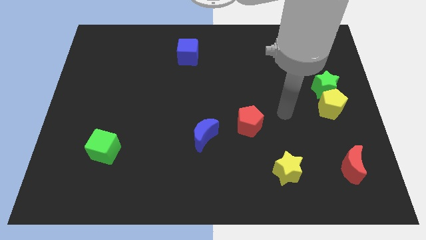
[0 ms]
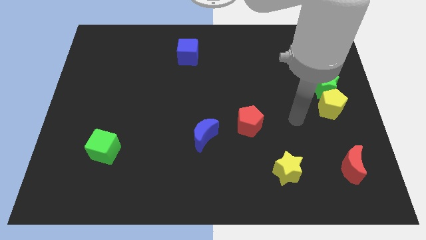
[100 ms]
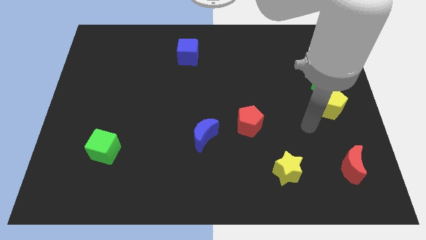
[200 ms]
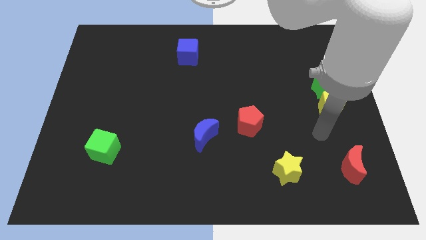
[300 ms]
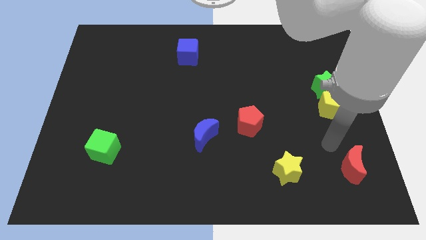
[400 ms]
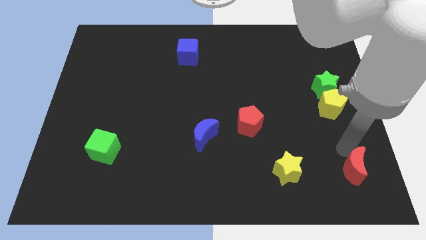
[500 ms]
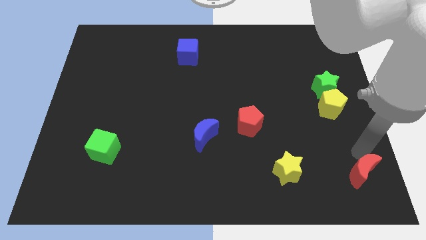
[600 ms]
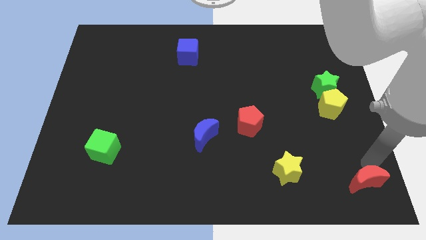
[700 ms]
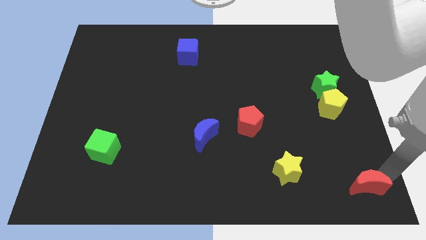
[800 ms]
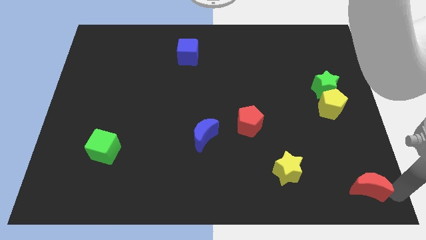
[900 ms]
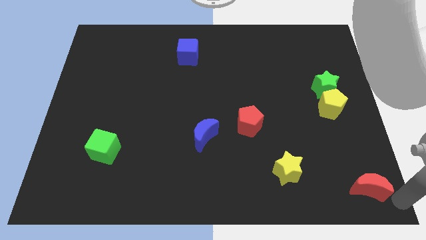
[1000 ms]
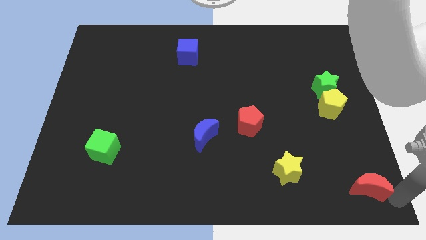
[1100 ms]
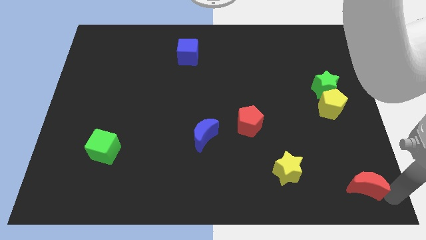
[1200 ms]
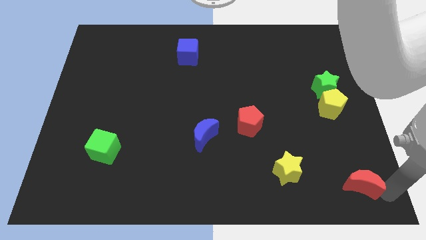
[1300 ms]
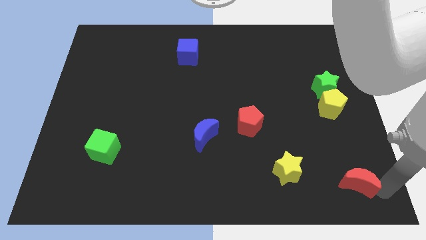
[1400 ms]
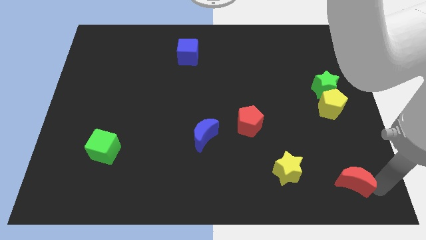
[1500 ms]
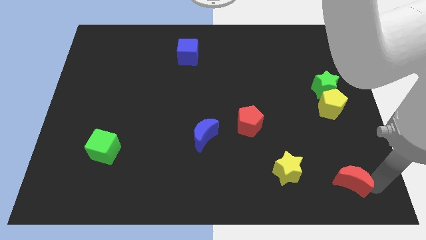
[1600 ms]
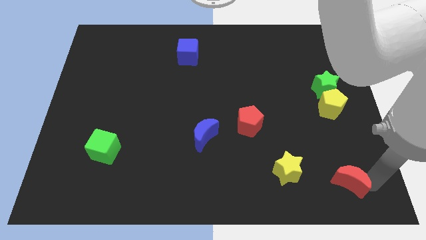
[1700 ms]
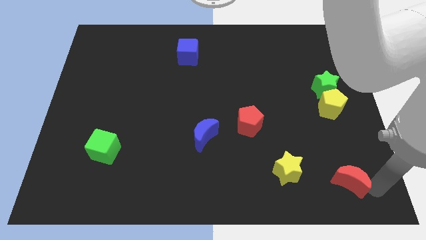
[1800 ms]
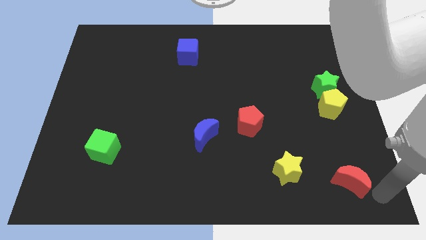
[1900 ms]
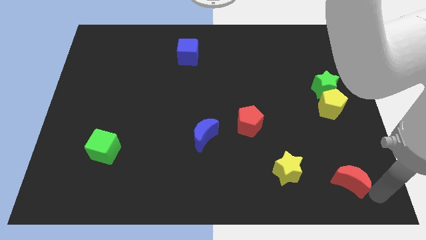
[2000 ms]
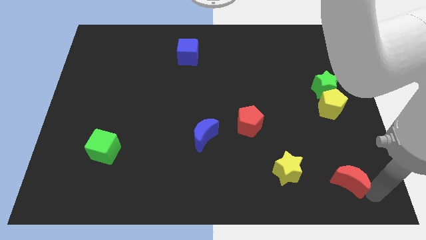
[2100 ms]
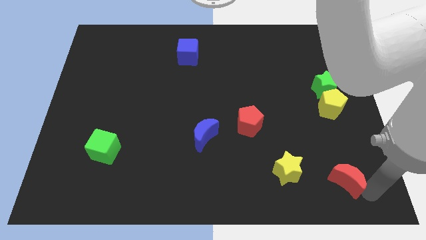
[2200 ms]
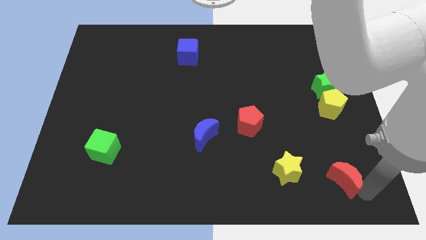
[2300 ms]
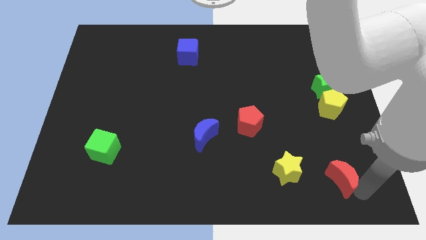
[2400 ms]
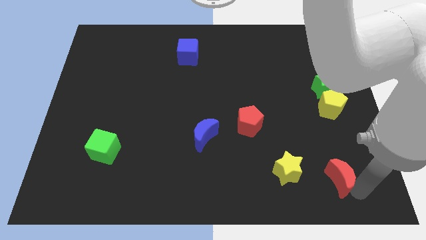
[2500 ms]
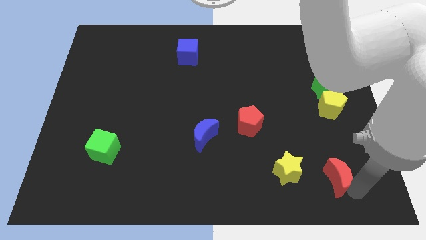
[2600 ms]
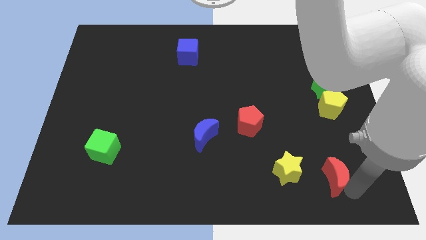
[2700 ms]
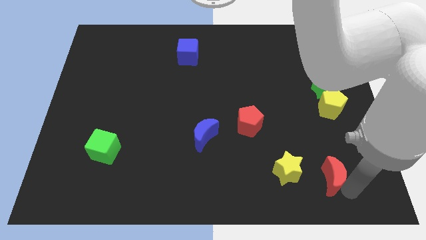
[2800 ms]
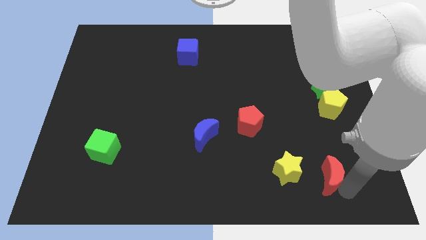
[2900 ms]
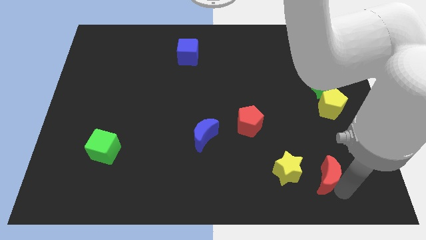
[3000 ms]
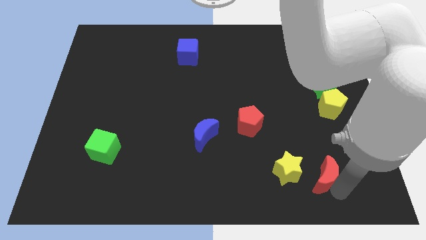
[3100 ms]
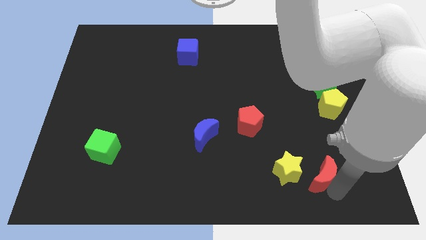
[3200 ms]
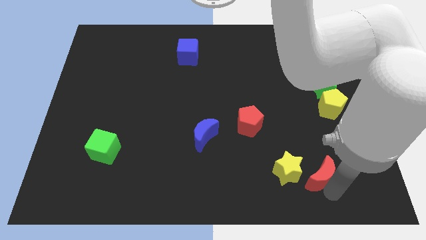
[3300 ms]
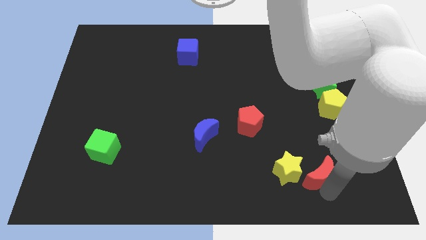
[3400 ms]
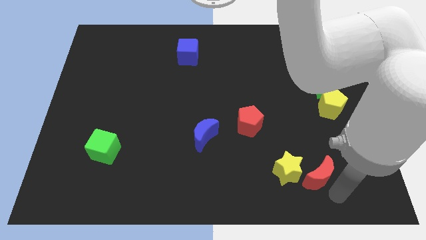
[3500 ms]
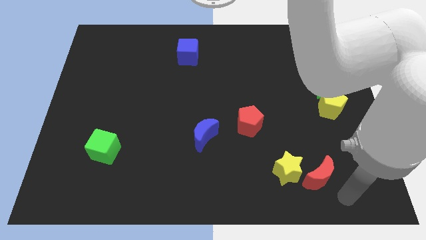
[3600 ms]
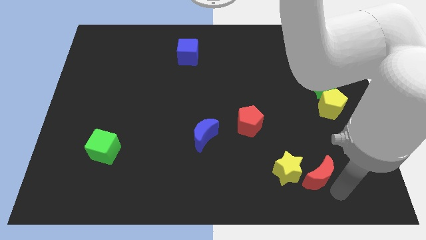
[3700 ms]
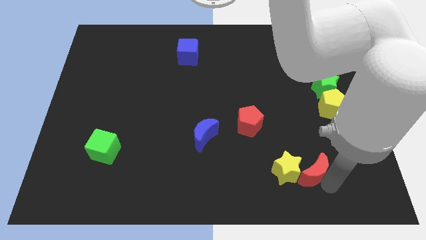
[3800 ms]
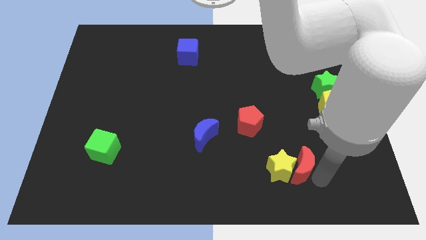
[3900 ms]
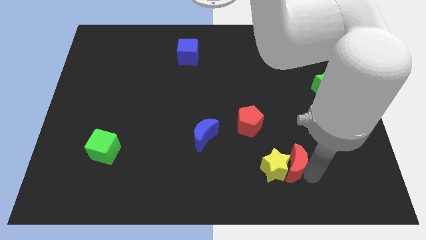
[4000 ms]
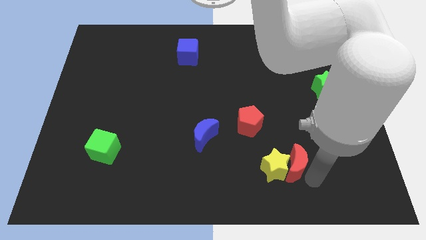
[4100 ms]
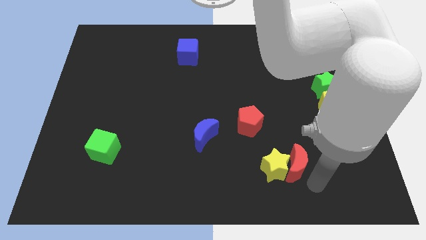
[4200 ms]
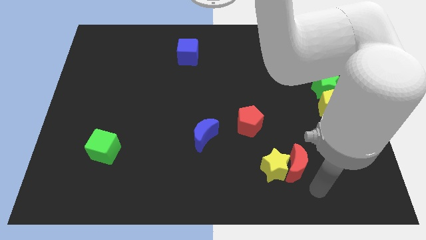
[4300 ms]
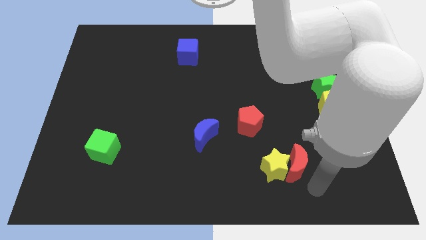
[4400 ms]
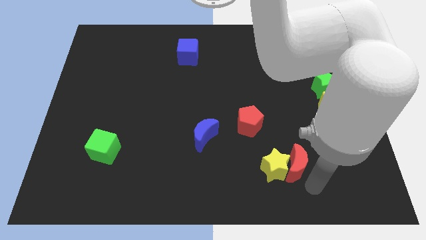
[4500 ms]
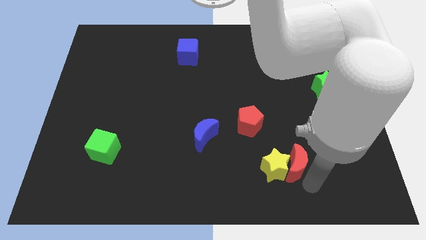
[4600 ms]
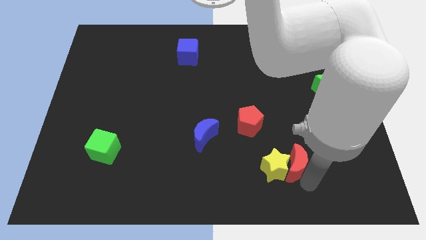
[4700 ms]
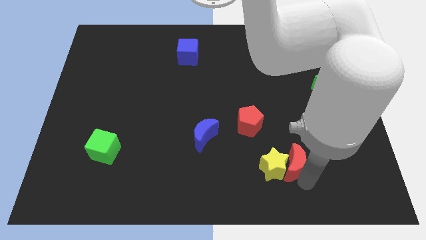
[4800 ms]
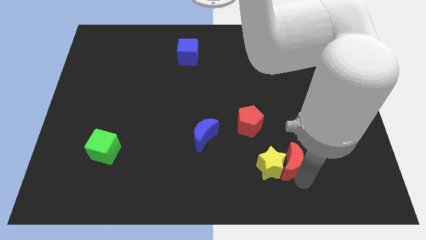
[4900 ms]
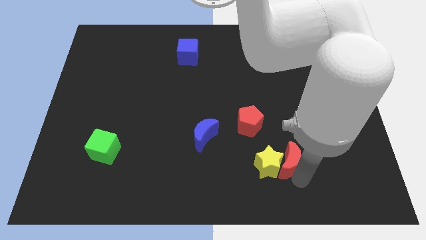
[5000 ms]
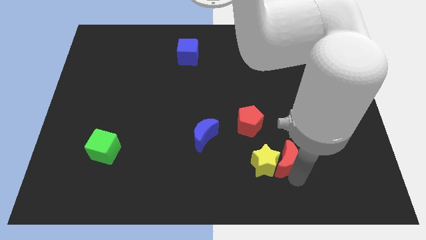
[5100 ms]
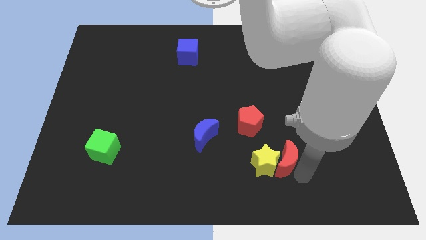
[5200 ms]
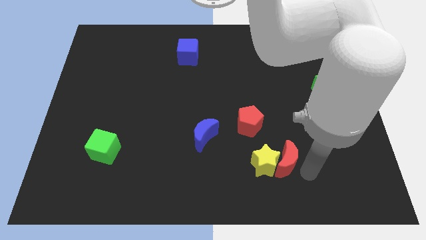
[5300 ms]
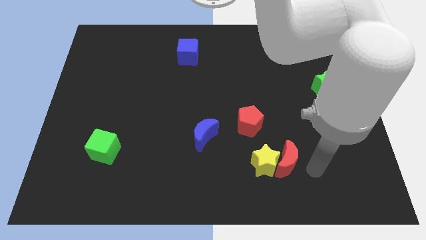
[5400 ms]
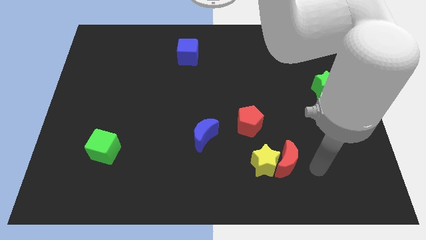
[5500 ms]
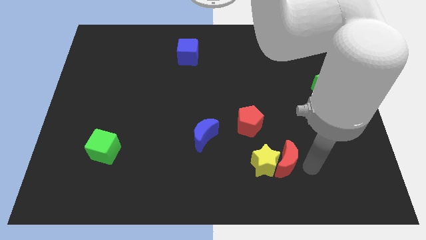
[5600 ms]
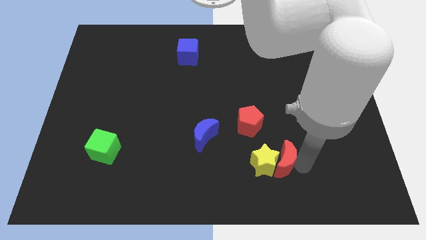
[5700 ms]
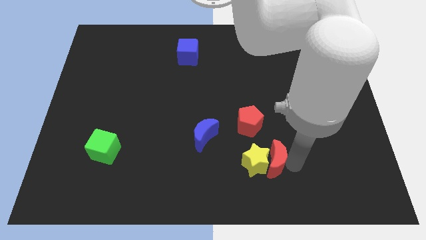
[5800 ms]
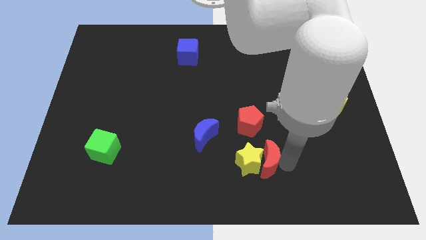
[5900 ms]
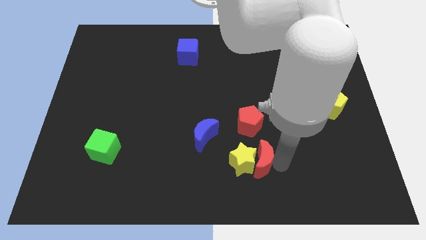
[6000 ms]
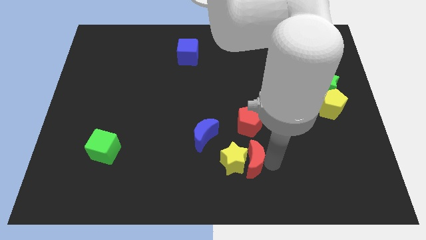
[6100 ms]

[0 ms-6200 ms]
push the red moon left

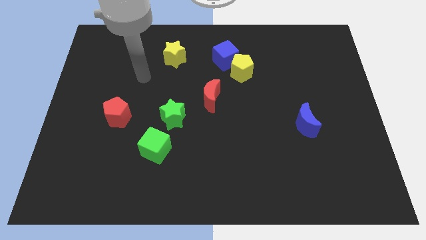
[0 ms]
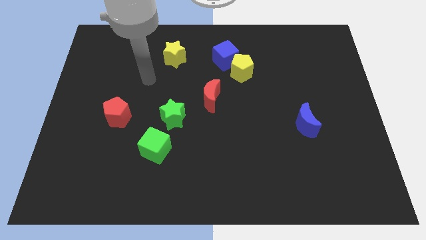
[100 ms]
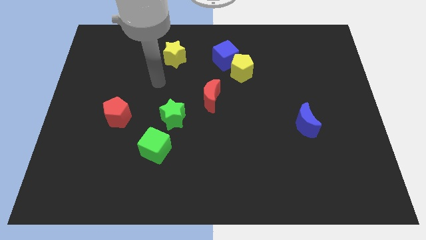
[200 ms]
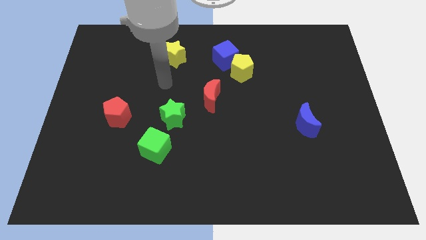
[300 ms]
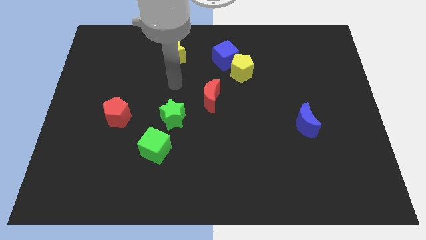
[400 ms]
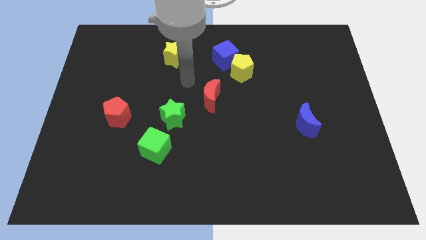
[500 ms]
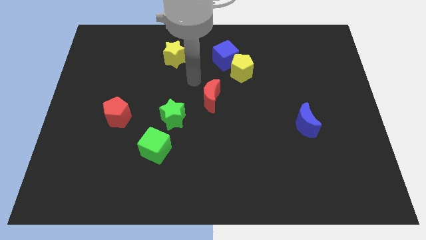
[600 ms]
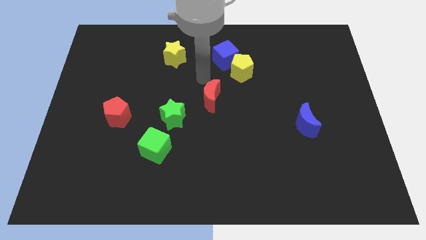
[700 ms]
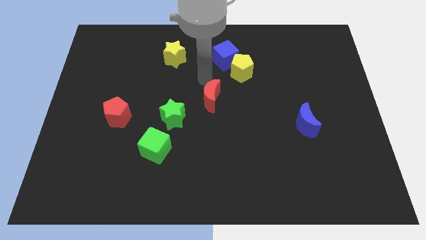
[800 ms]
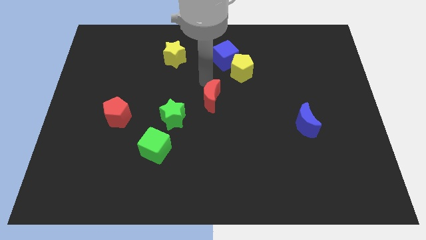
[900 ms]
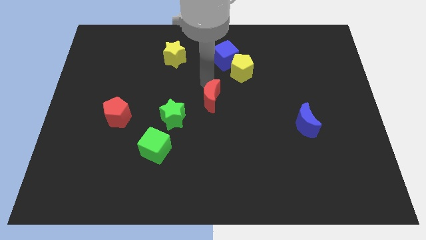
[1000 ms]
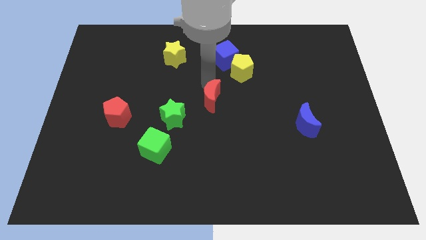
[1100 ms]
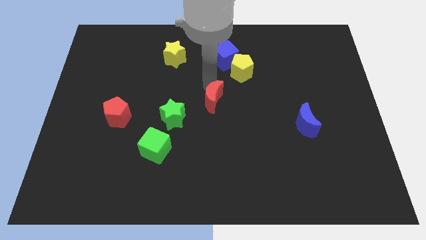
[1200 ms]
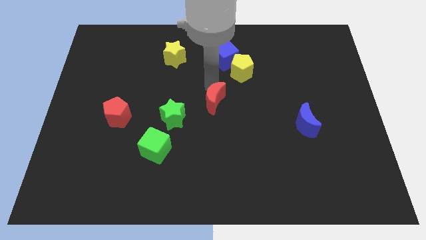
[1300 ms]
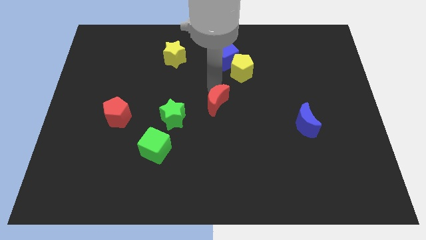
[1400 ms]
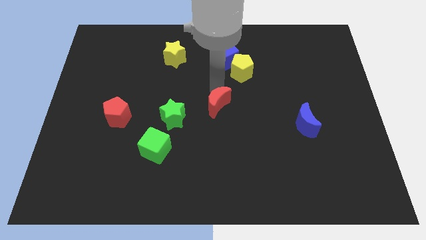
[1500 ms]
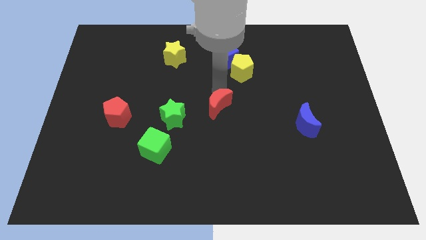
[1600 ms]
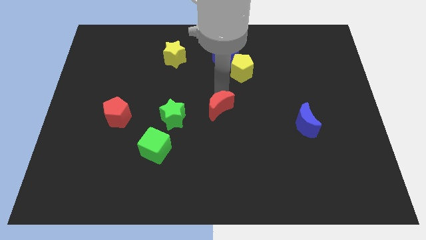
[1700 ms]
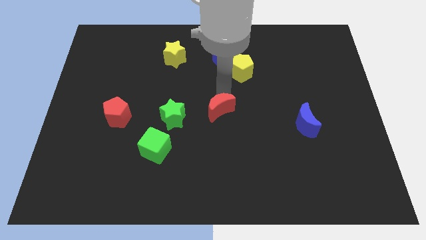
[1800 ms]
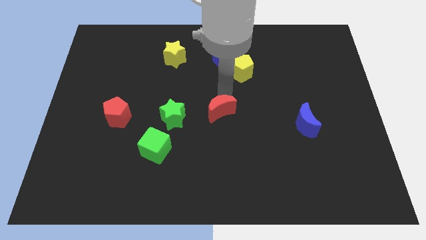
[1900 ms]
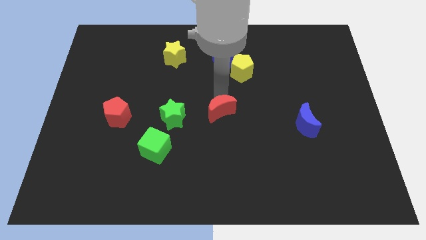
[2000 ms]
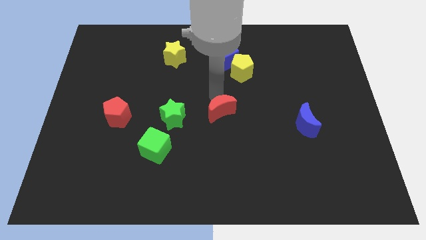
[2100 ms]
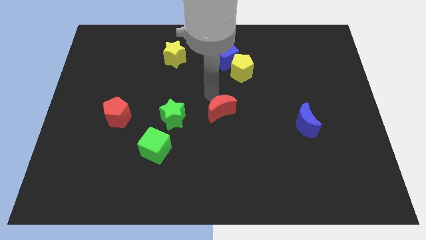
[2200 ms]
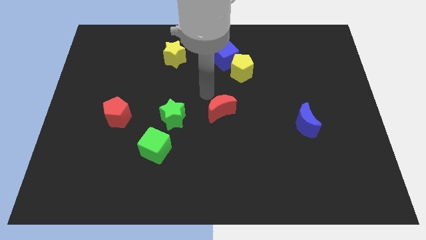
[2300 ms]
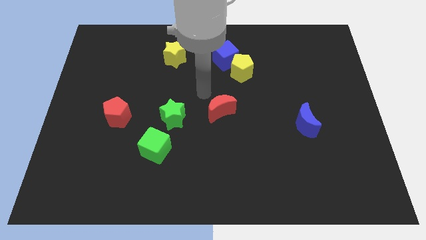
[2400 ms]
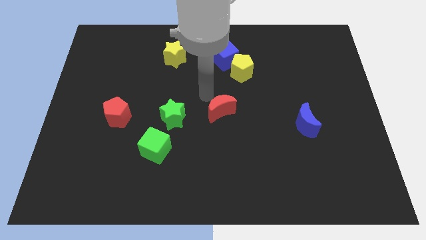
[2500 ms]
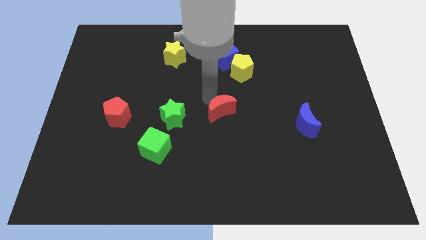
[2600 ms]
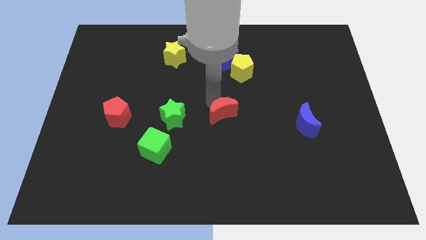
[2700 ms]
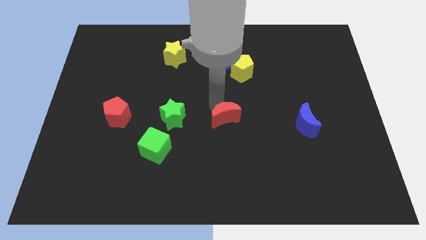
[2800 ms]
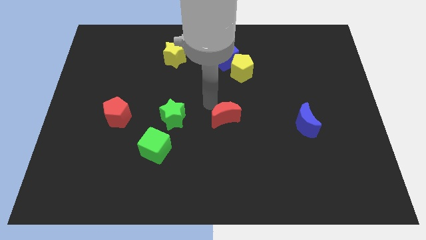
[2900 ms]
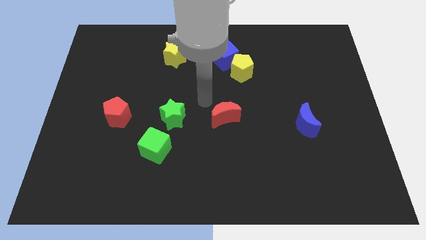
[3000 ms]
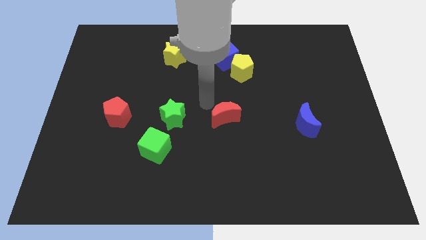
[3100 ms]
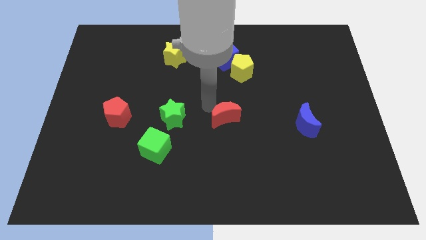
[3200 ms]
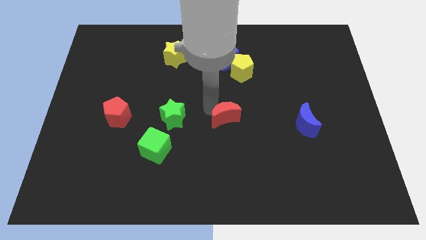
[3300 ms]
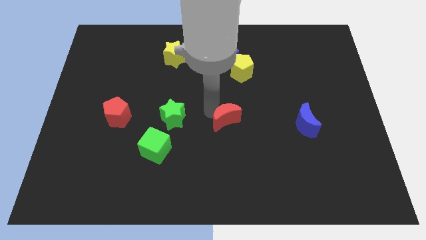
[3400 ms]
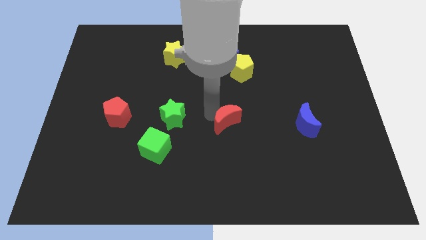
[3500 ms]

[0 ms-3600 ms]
slide the red moon a little bit downwards and to the right diagonally
